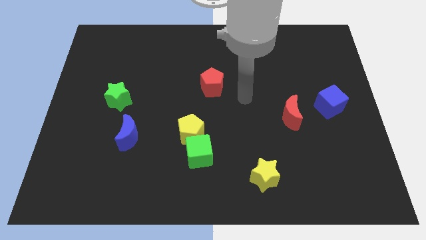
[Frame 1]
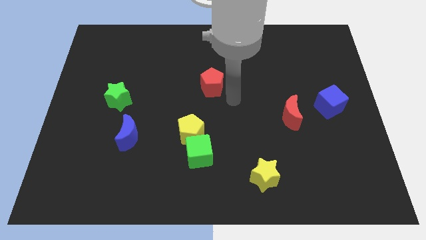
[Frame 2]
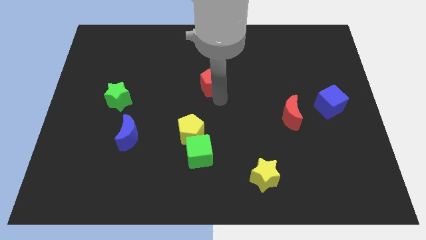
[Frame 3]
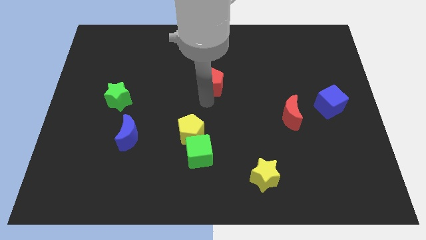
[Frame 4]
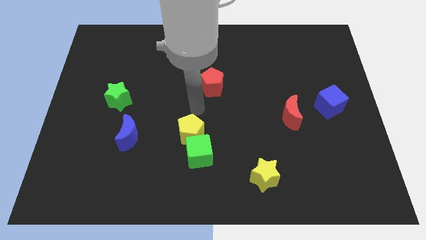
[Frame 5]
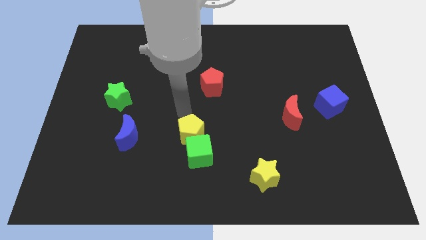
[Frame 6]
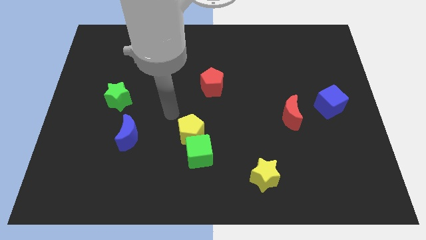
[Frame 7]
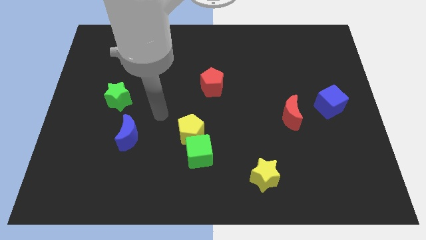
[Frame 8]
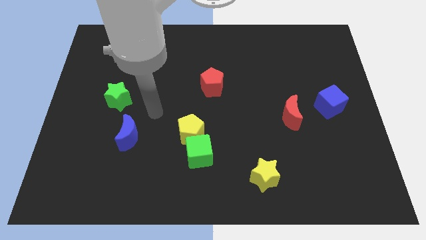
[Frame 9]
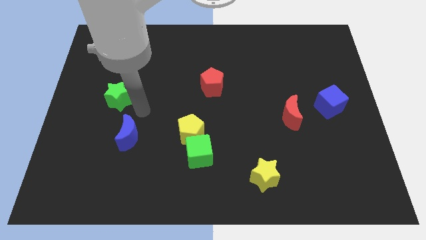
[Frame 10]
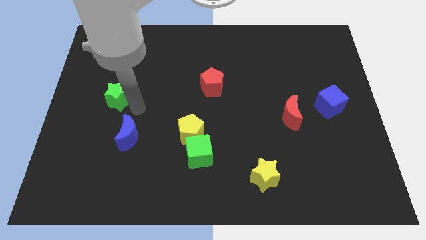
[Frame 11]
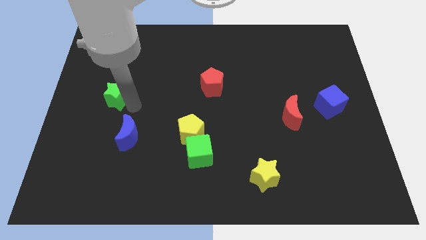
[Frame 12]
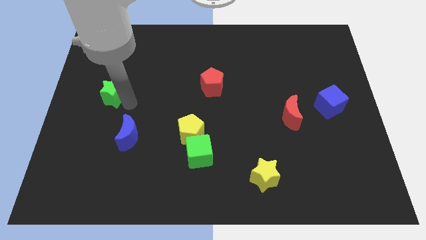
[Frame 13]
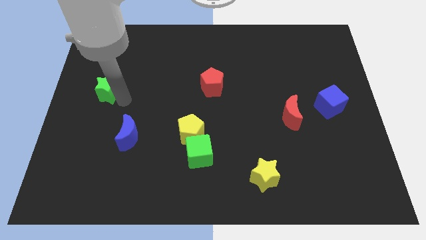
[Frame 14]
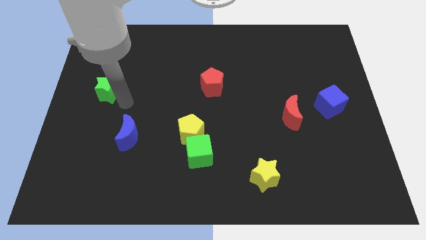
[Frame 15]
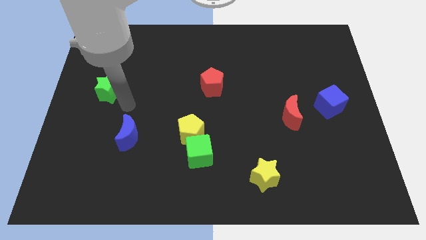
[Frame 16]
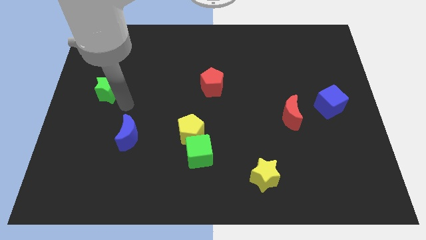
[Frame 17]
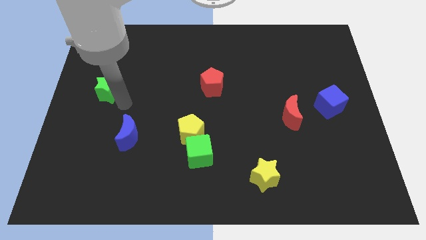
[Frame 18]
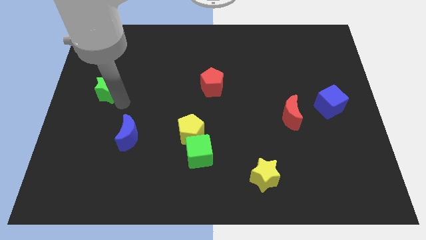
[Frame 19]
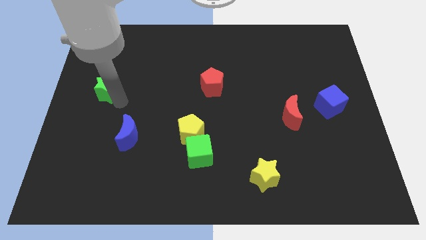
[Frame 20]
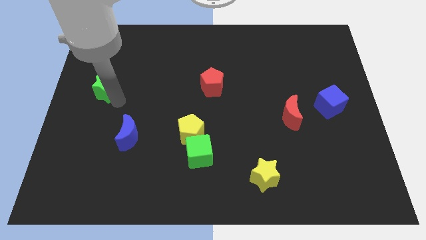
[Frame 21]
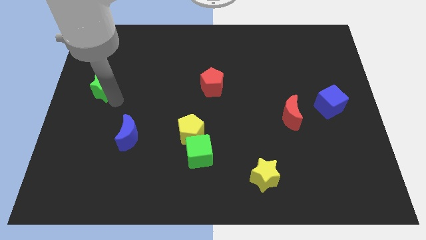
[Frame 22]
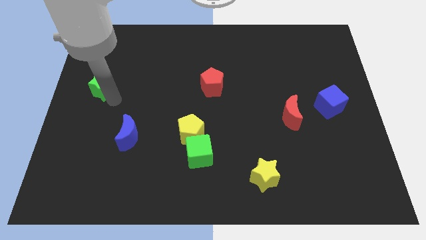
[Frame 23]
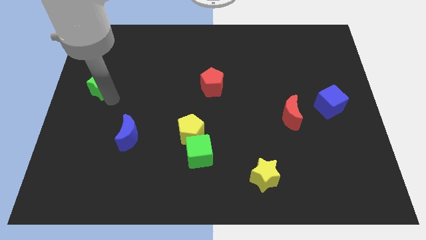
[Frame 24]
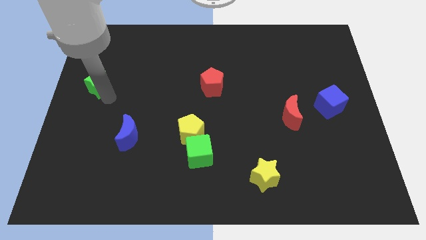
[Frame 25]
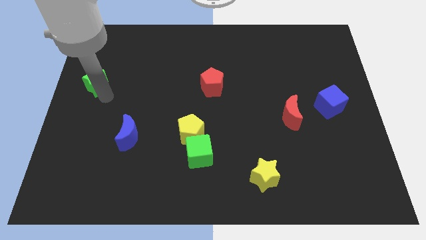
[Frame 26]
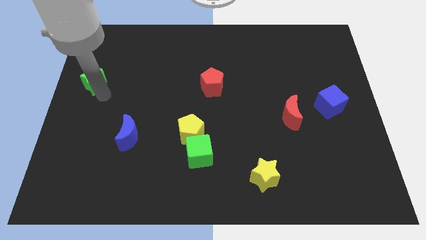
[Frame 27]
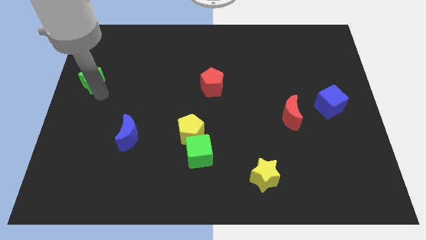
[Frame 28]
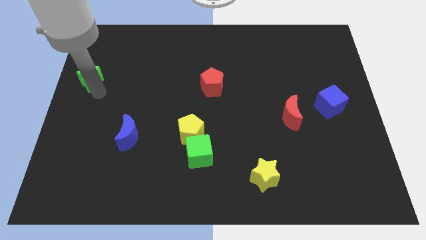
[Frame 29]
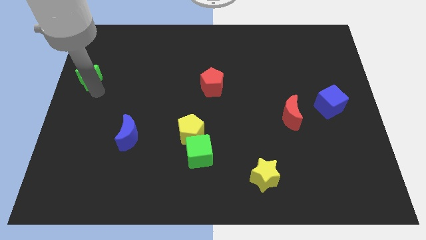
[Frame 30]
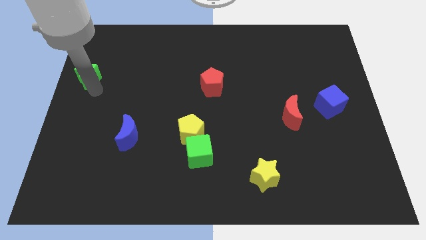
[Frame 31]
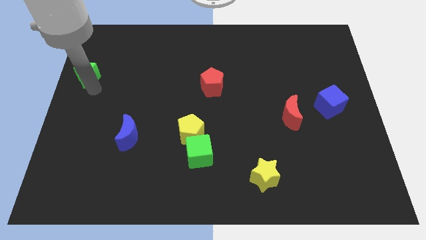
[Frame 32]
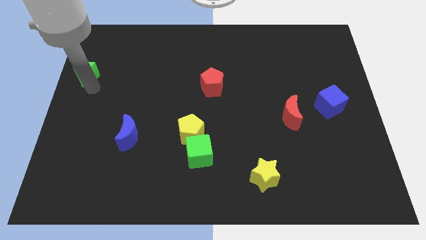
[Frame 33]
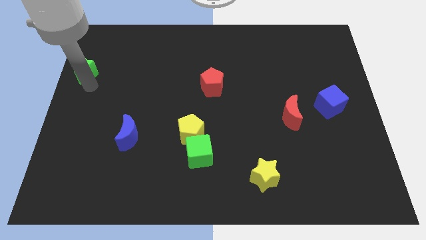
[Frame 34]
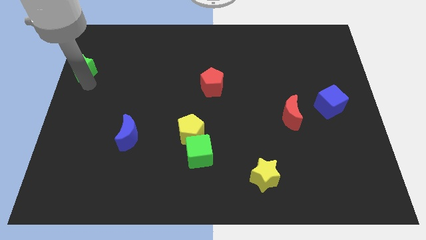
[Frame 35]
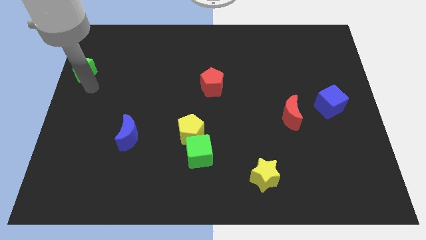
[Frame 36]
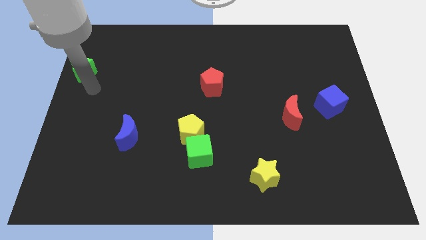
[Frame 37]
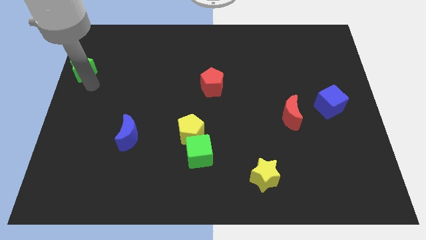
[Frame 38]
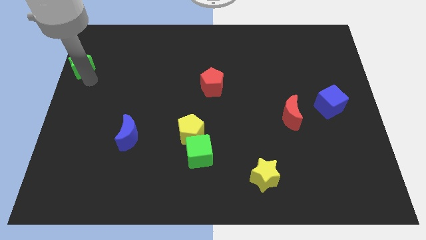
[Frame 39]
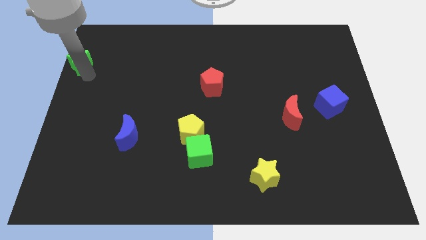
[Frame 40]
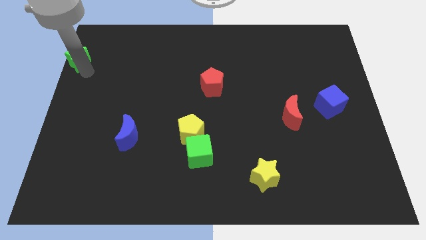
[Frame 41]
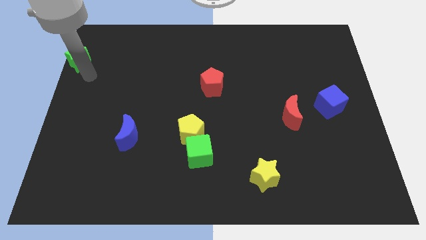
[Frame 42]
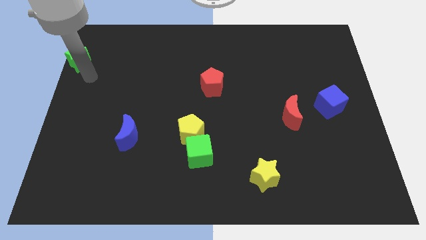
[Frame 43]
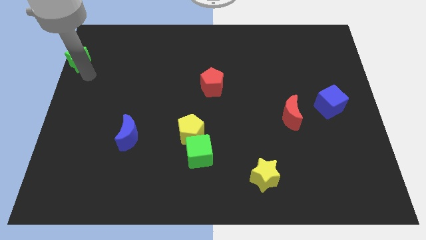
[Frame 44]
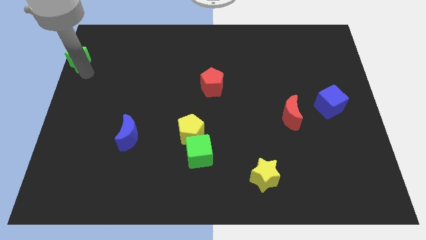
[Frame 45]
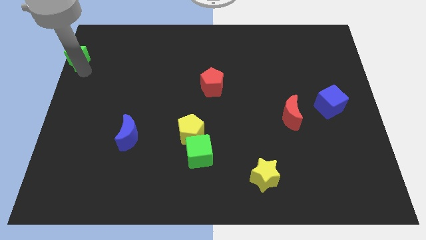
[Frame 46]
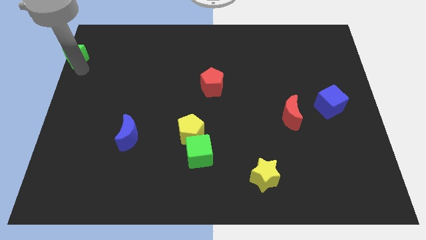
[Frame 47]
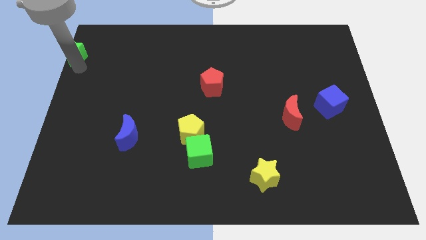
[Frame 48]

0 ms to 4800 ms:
move the green star to the top left of the board

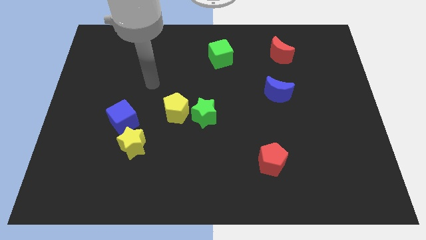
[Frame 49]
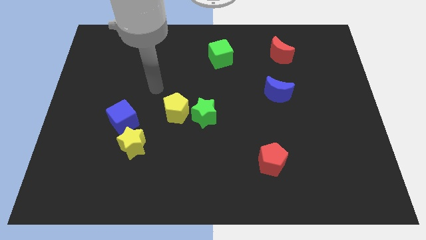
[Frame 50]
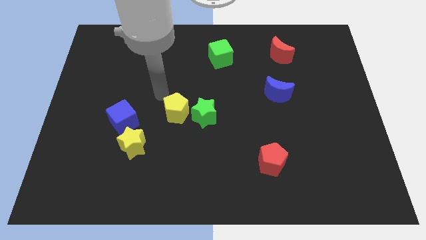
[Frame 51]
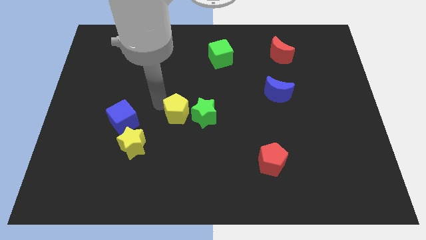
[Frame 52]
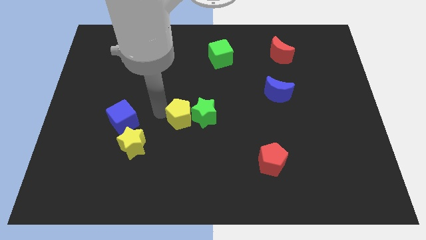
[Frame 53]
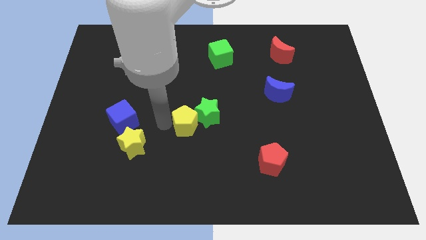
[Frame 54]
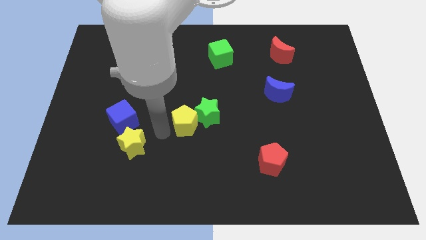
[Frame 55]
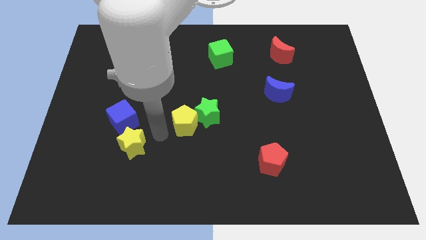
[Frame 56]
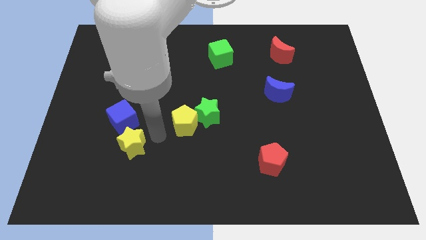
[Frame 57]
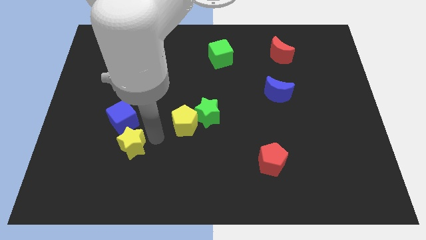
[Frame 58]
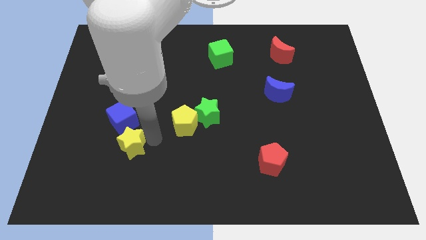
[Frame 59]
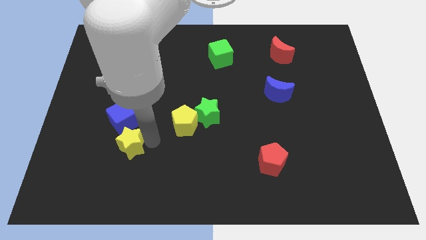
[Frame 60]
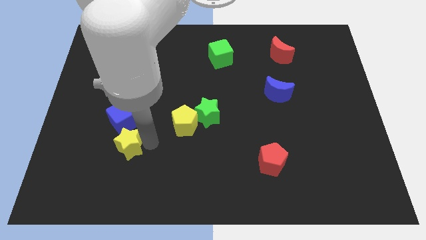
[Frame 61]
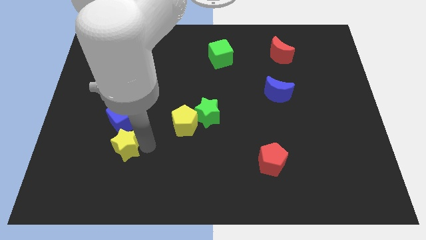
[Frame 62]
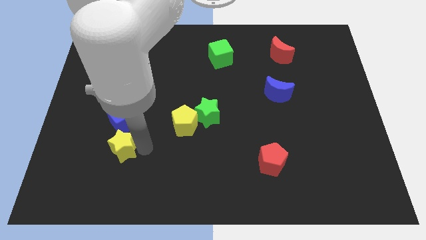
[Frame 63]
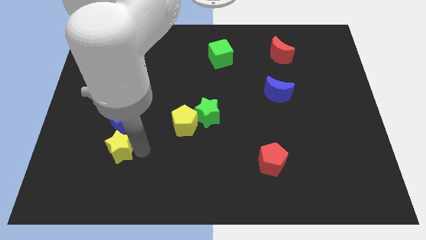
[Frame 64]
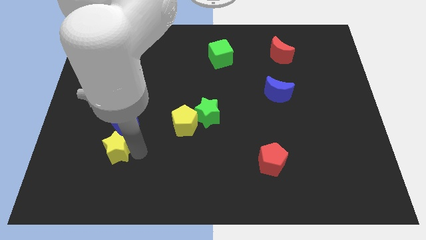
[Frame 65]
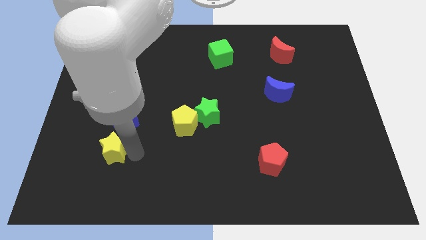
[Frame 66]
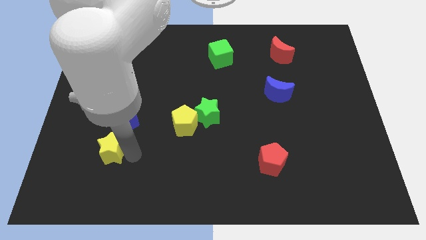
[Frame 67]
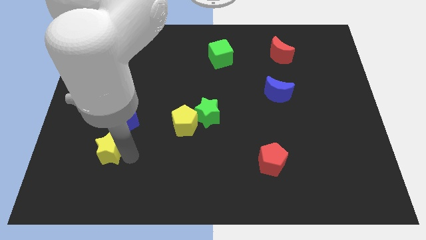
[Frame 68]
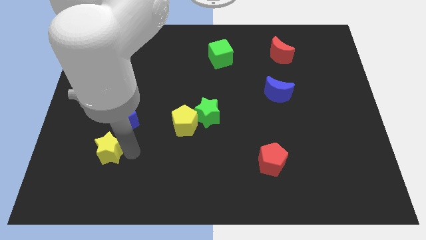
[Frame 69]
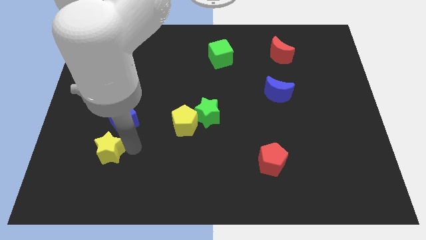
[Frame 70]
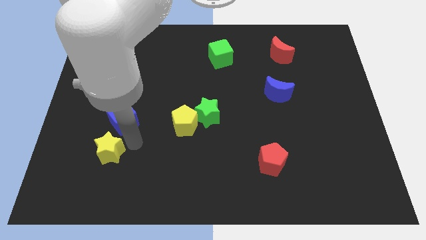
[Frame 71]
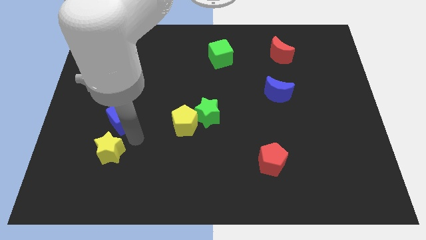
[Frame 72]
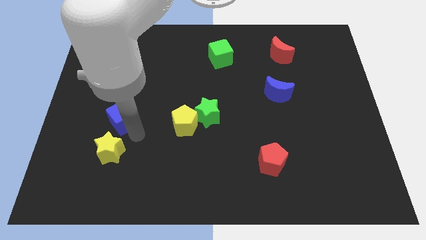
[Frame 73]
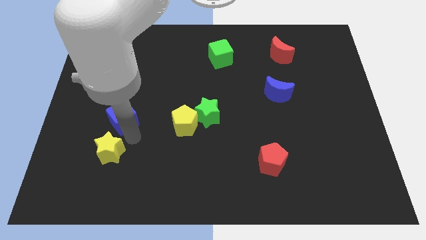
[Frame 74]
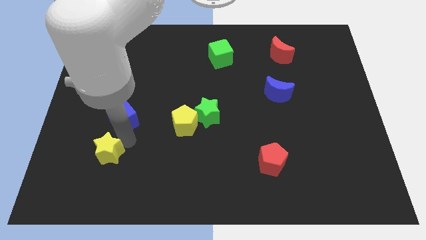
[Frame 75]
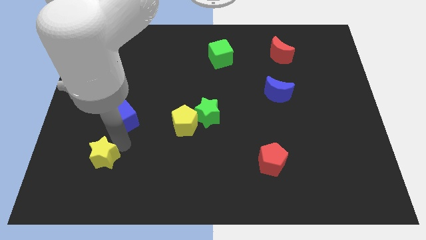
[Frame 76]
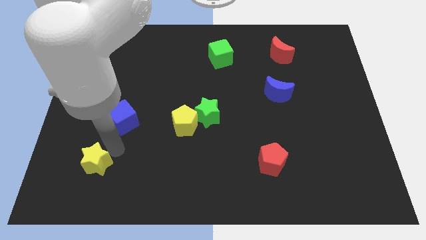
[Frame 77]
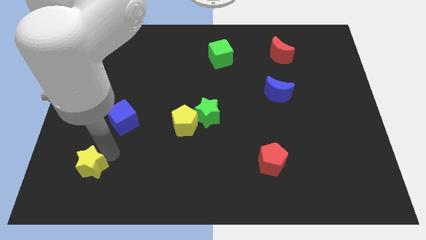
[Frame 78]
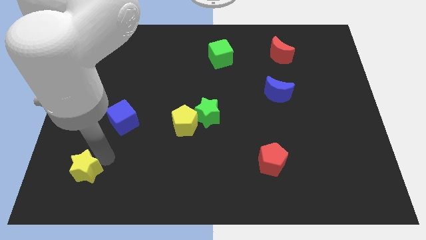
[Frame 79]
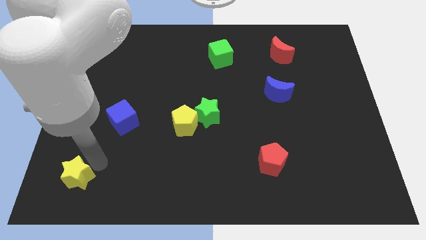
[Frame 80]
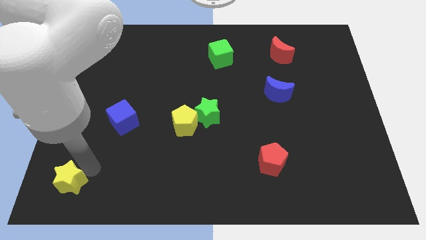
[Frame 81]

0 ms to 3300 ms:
push the yellow star to the bottom left corner

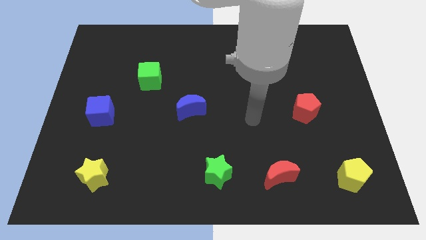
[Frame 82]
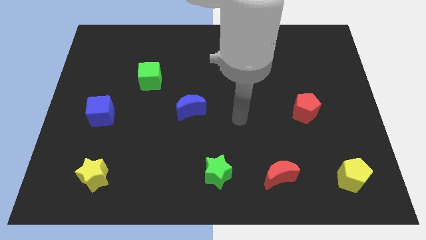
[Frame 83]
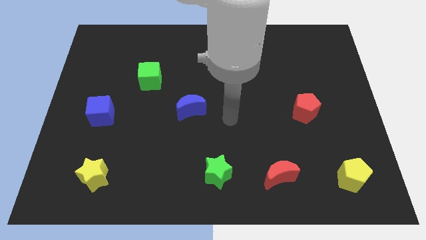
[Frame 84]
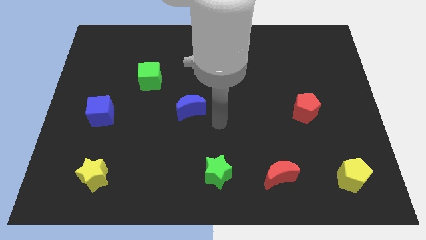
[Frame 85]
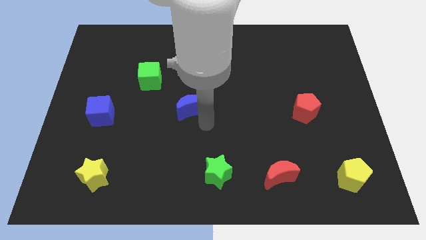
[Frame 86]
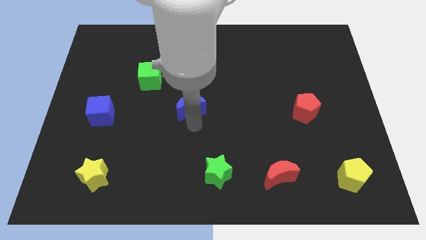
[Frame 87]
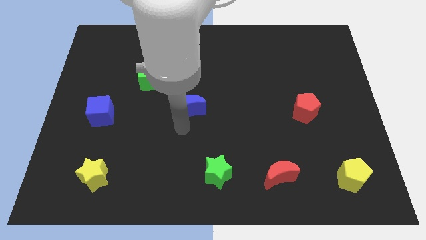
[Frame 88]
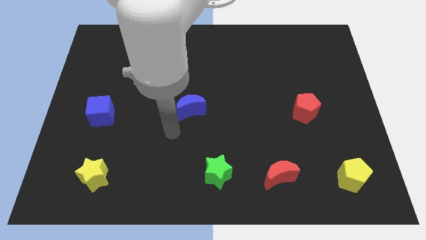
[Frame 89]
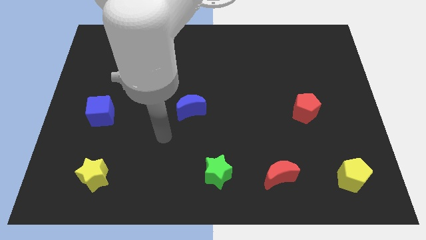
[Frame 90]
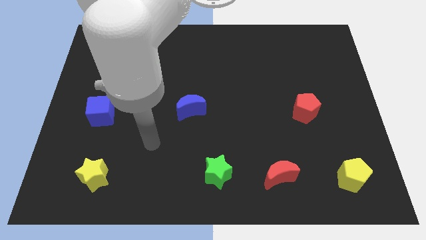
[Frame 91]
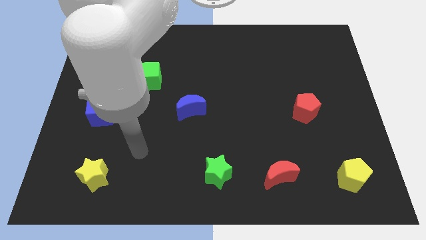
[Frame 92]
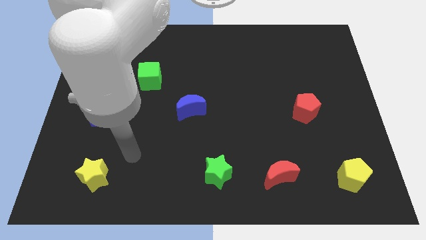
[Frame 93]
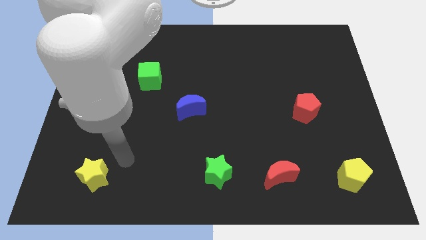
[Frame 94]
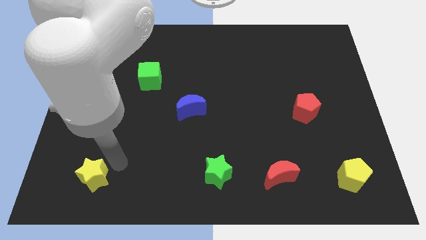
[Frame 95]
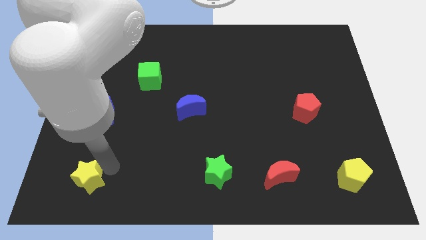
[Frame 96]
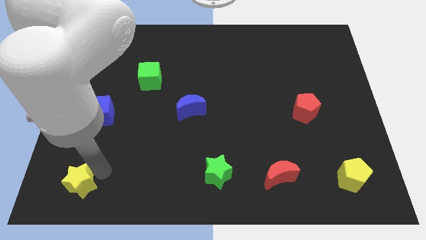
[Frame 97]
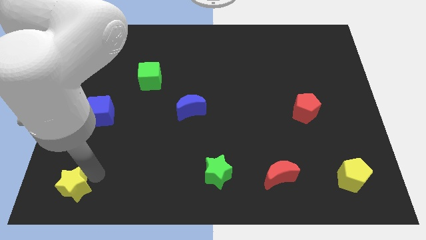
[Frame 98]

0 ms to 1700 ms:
move the yellow star to the bottom left corner
